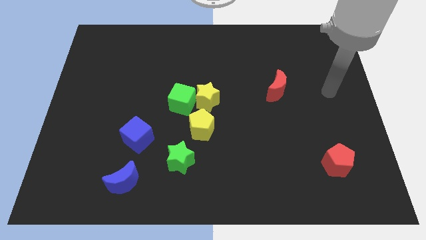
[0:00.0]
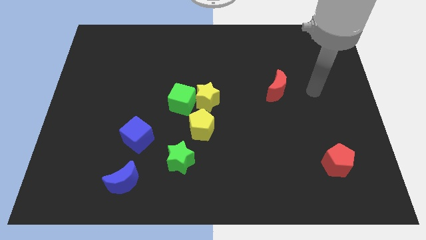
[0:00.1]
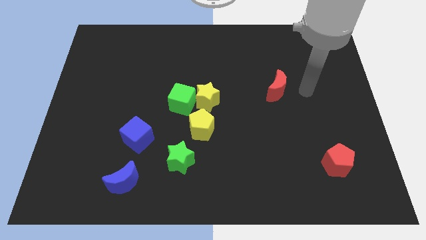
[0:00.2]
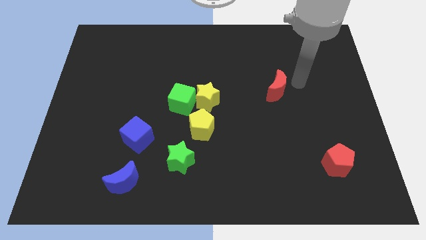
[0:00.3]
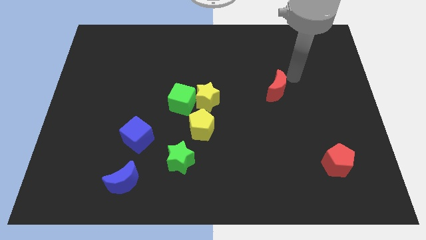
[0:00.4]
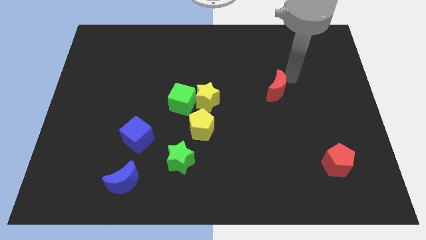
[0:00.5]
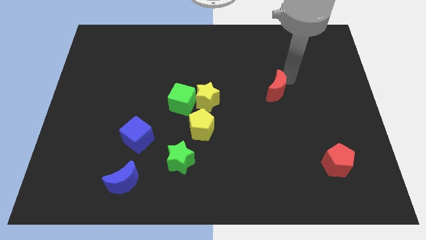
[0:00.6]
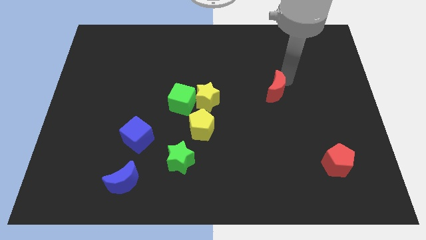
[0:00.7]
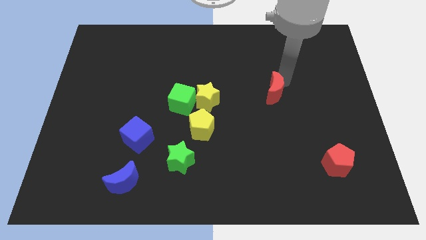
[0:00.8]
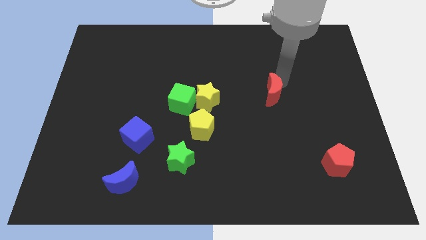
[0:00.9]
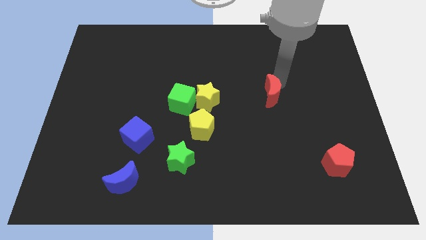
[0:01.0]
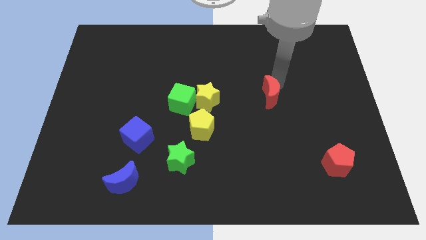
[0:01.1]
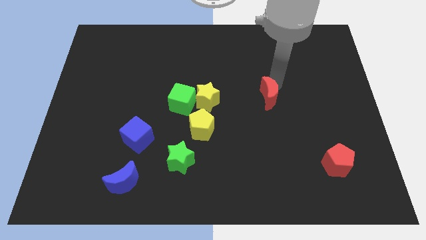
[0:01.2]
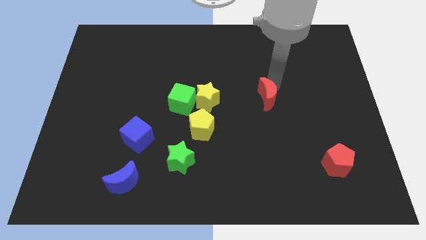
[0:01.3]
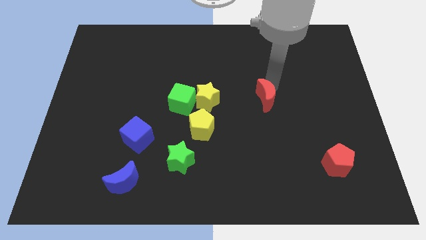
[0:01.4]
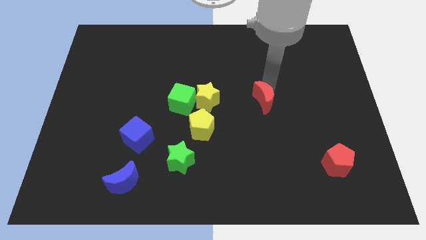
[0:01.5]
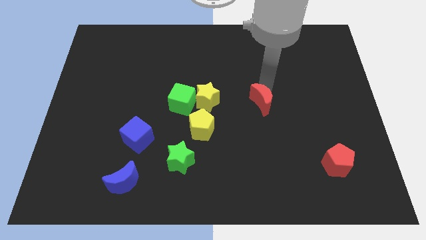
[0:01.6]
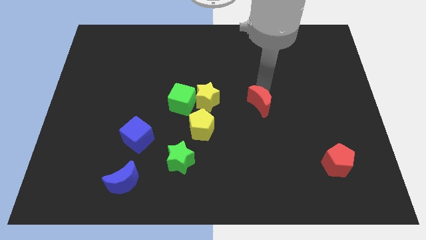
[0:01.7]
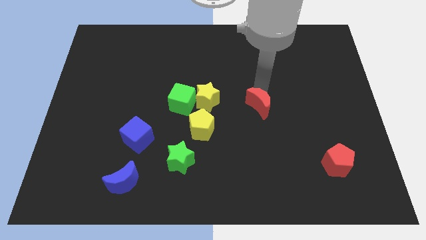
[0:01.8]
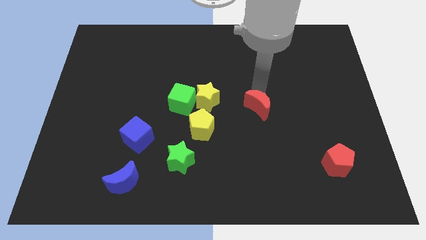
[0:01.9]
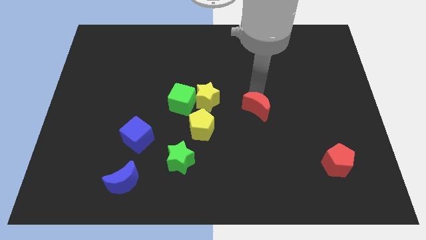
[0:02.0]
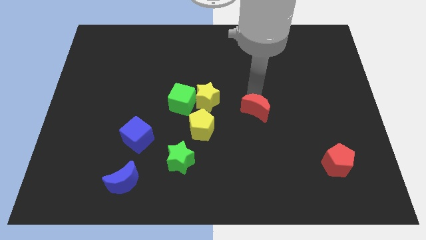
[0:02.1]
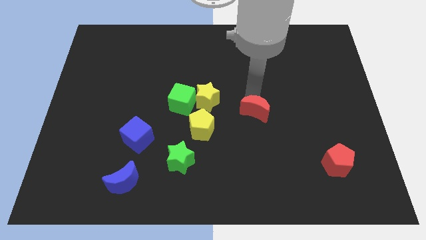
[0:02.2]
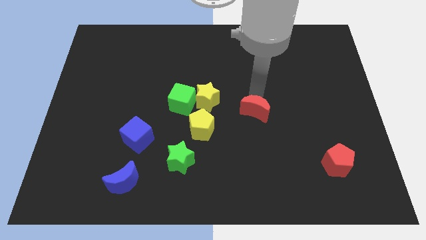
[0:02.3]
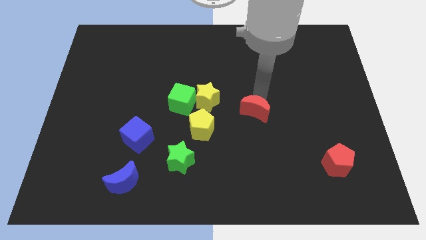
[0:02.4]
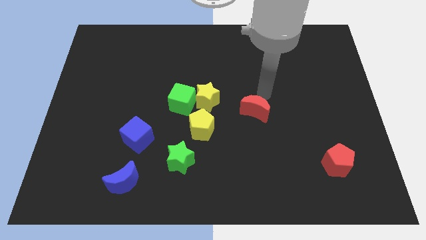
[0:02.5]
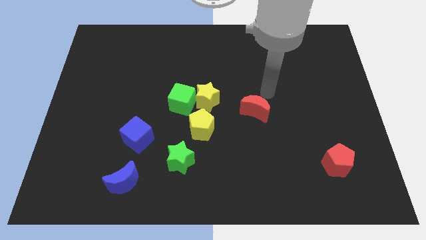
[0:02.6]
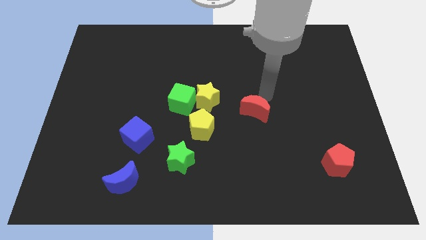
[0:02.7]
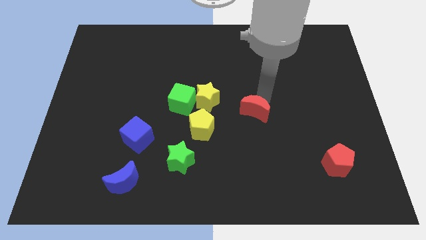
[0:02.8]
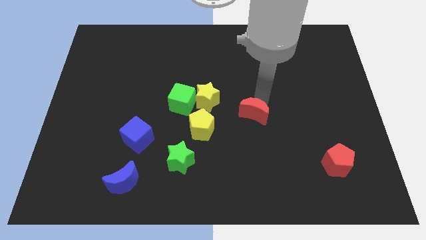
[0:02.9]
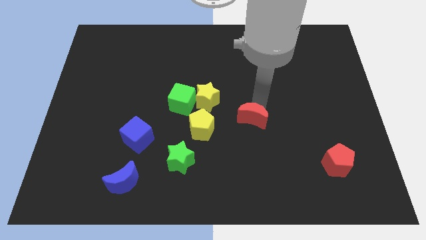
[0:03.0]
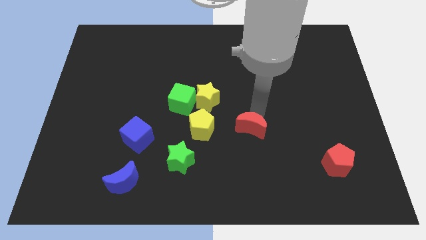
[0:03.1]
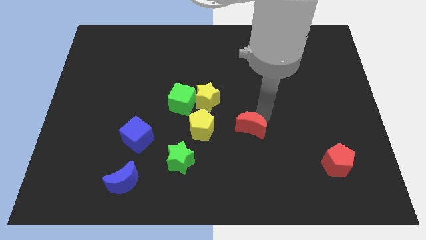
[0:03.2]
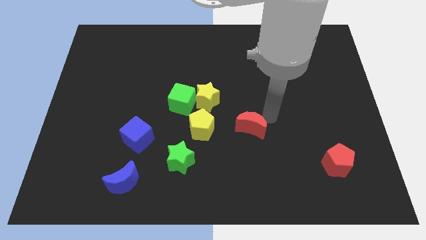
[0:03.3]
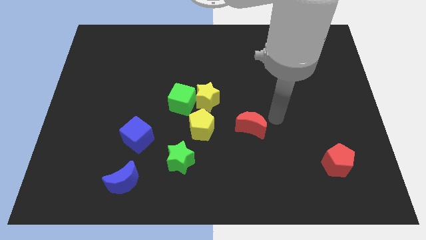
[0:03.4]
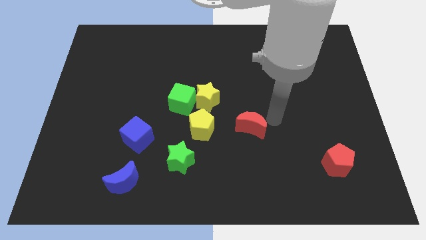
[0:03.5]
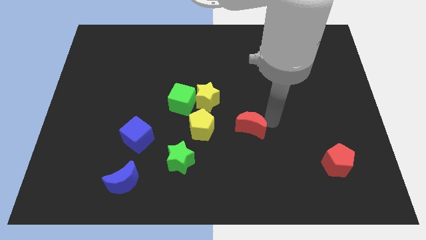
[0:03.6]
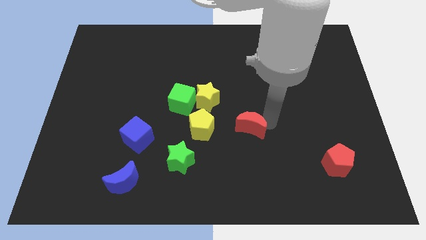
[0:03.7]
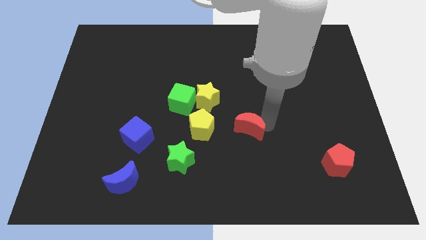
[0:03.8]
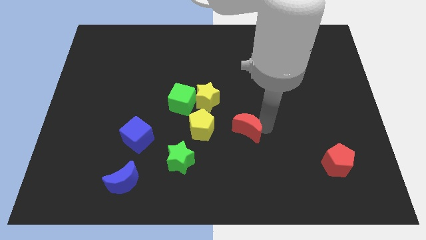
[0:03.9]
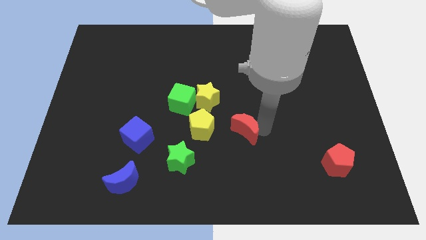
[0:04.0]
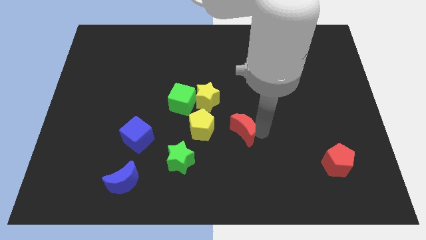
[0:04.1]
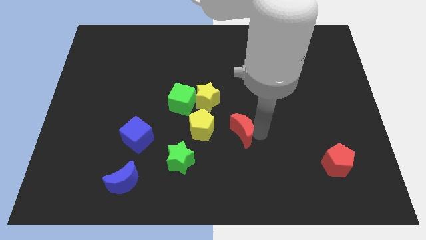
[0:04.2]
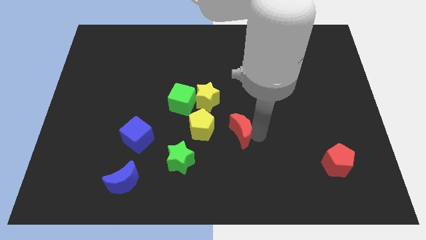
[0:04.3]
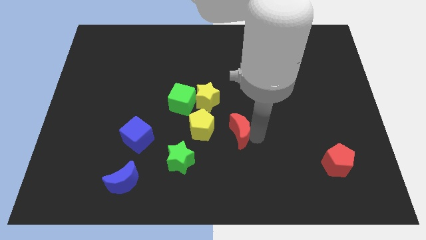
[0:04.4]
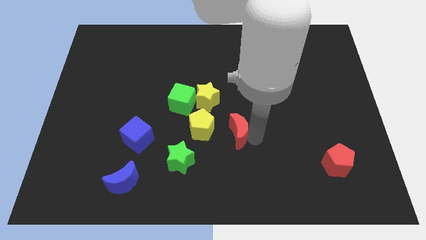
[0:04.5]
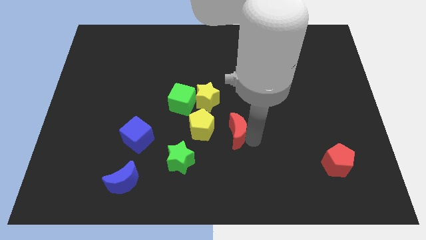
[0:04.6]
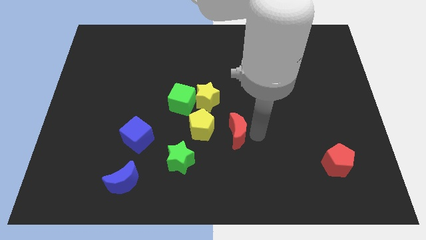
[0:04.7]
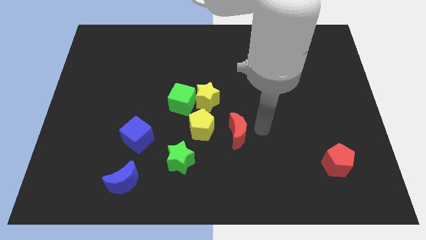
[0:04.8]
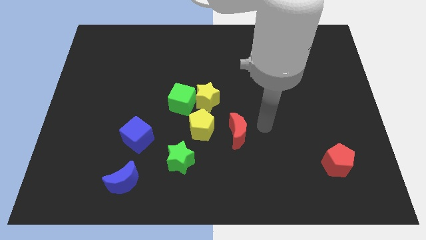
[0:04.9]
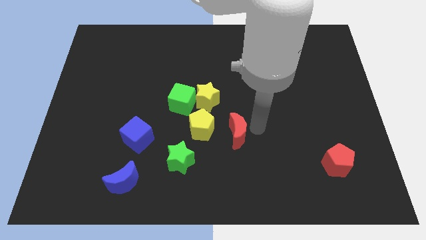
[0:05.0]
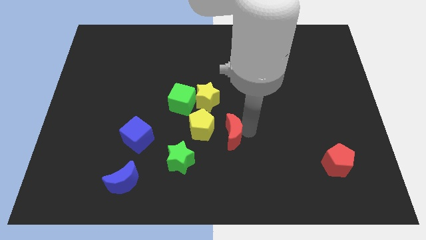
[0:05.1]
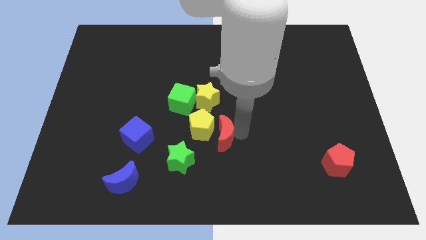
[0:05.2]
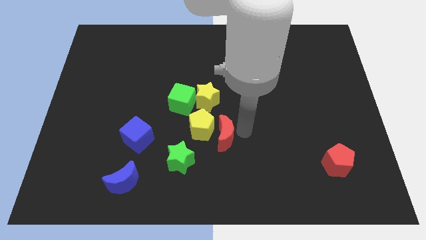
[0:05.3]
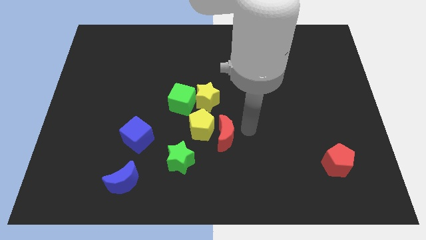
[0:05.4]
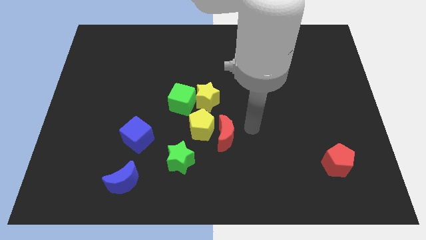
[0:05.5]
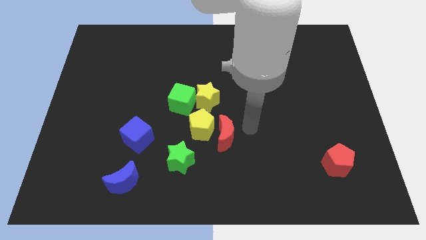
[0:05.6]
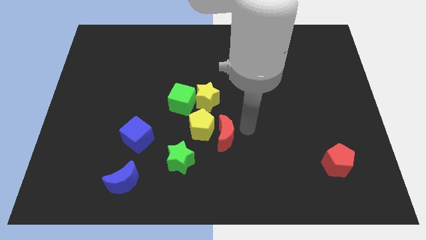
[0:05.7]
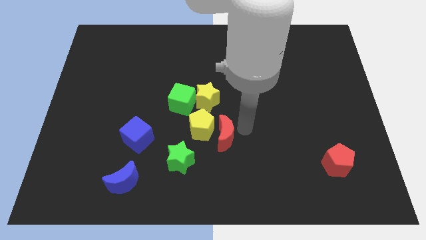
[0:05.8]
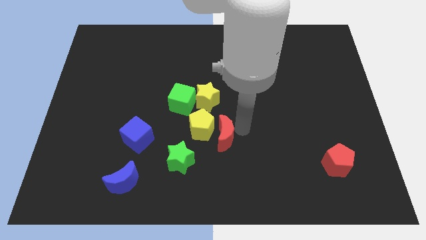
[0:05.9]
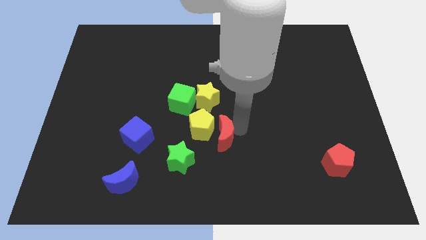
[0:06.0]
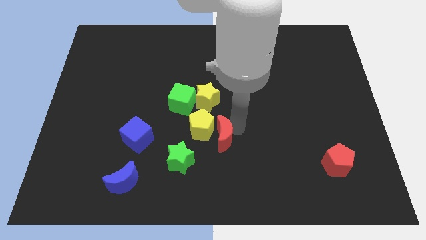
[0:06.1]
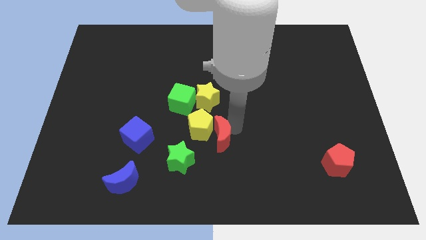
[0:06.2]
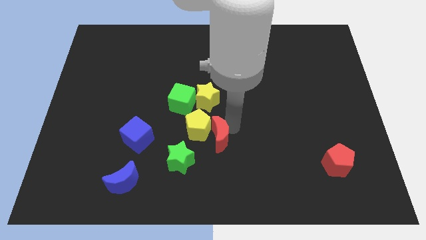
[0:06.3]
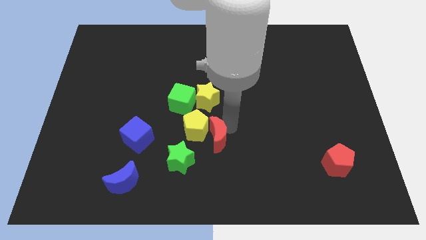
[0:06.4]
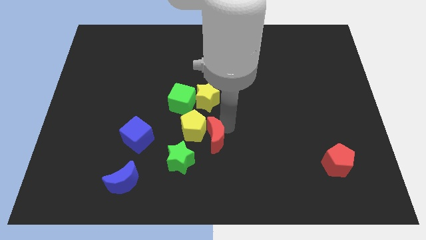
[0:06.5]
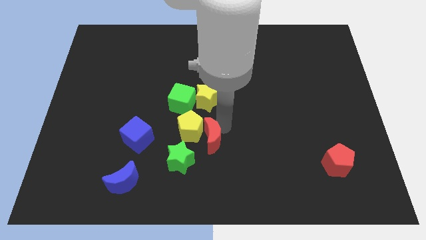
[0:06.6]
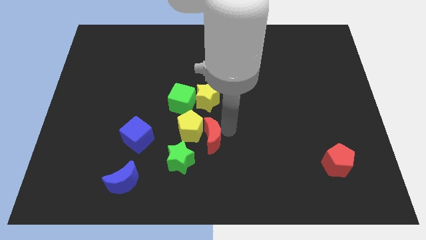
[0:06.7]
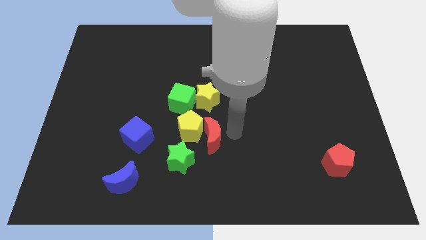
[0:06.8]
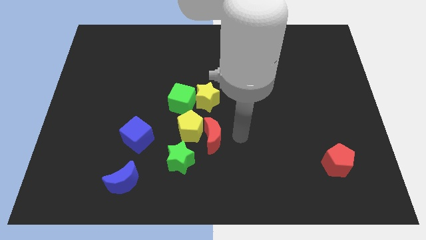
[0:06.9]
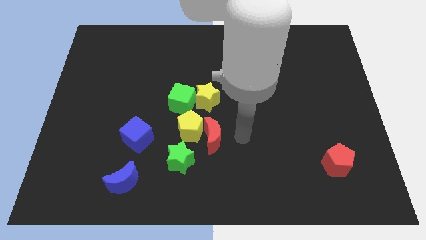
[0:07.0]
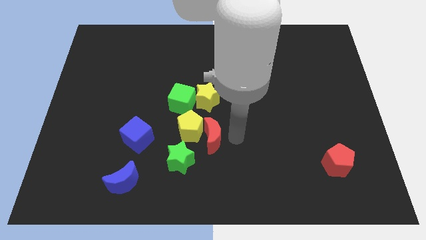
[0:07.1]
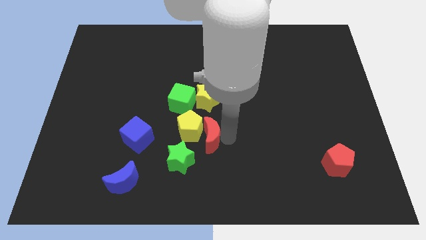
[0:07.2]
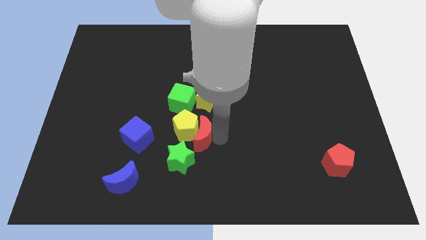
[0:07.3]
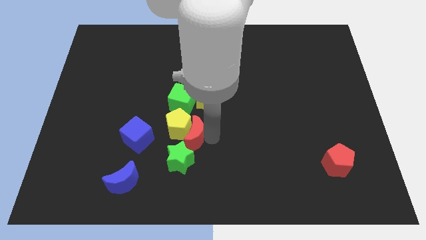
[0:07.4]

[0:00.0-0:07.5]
push the red moon below the green cube
